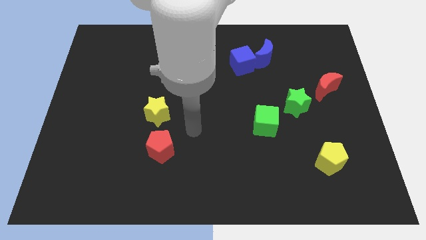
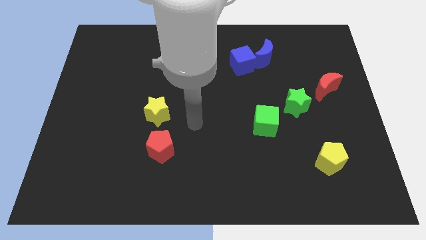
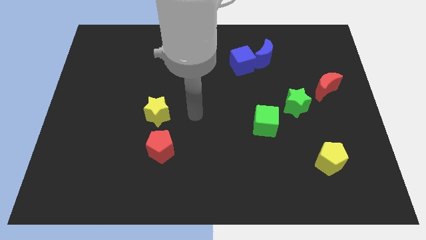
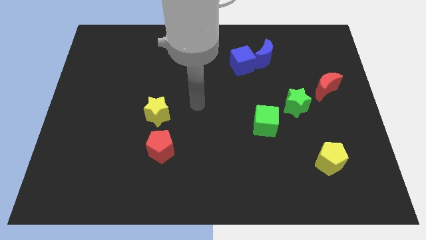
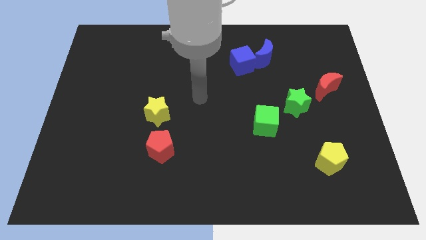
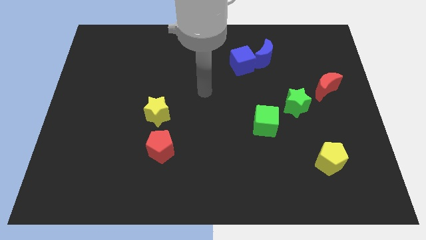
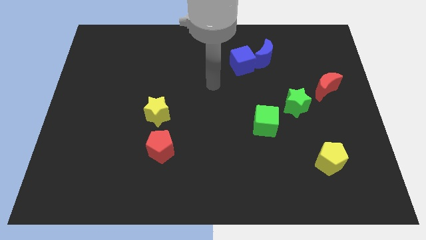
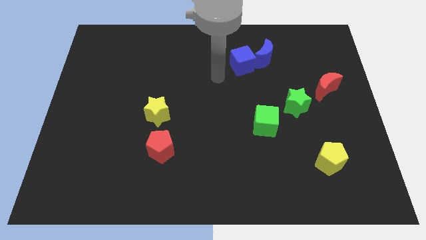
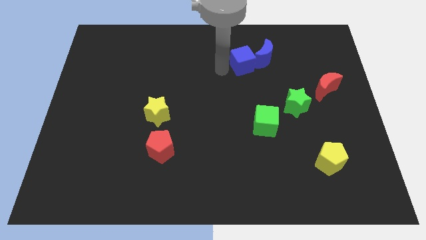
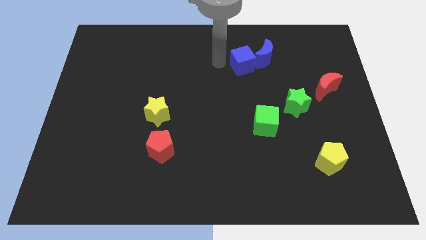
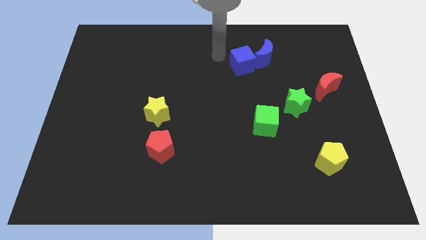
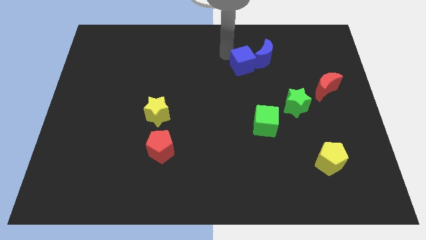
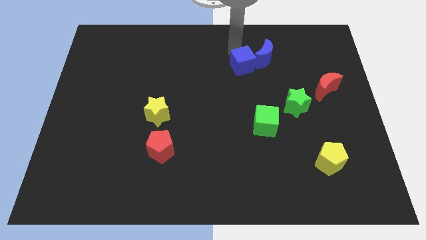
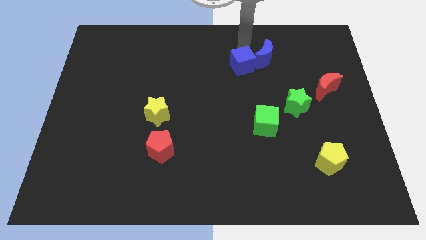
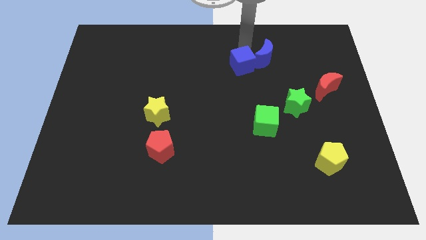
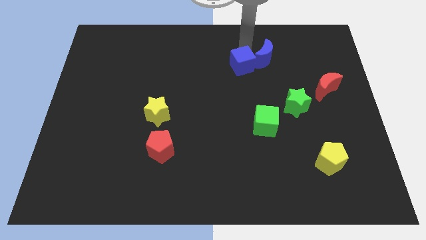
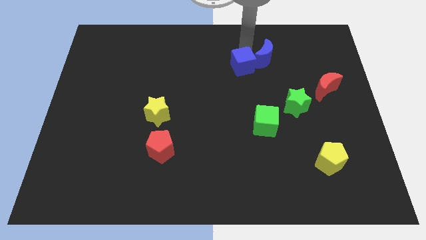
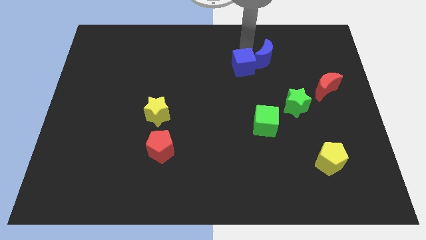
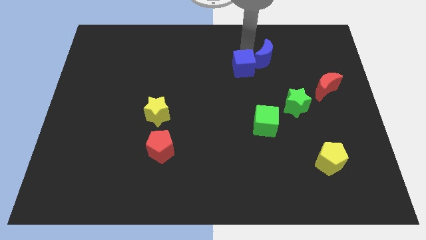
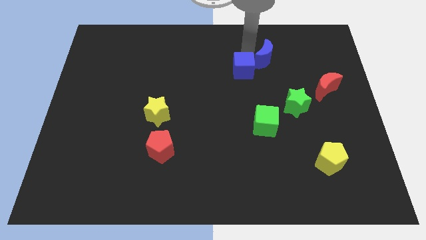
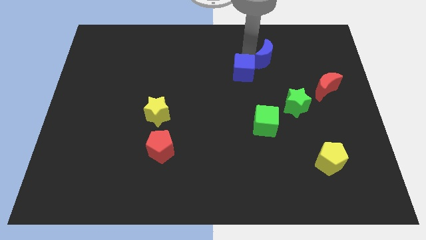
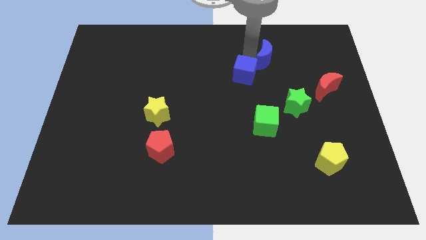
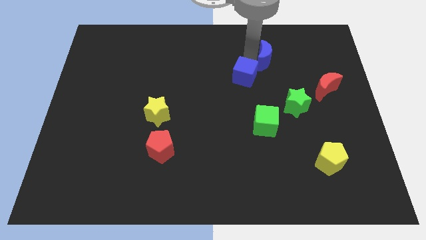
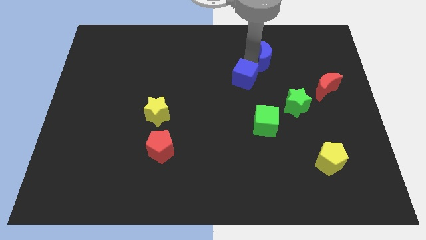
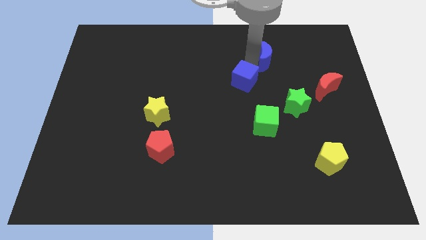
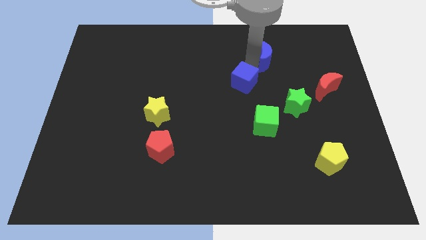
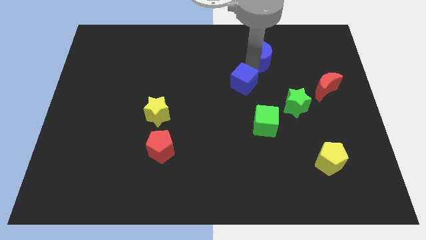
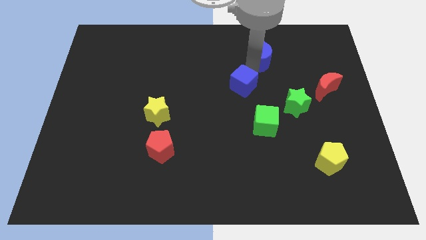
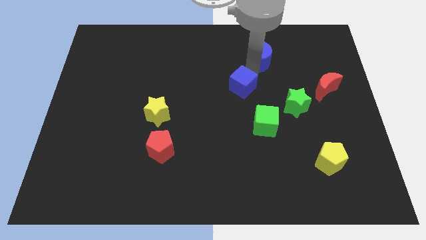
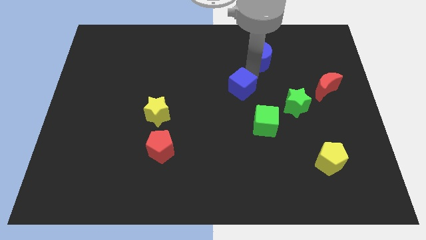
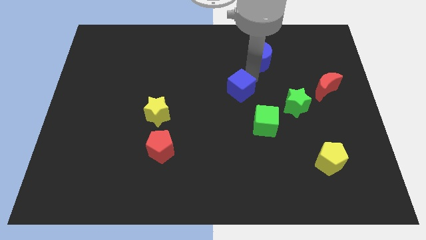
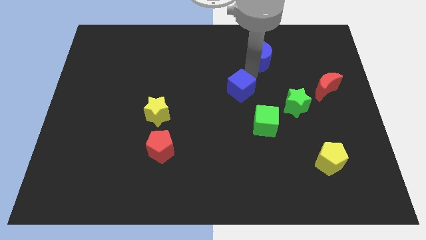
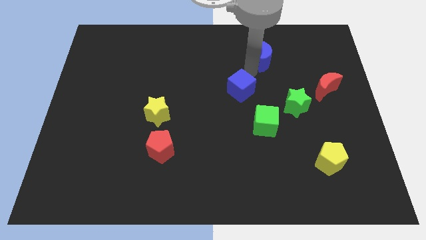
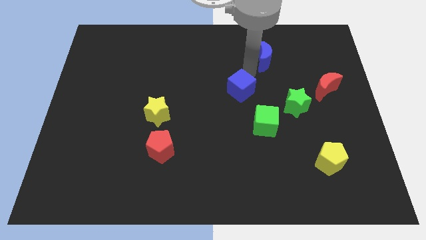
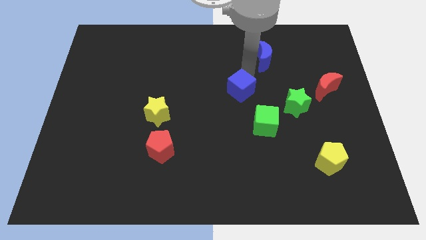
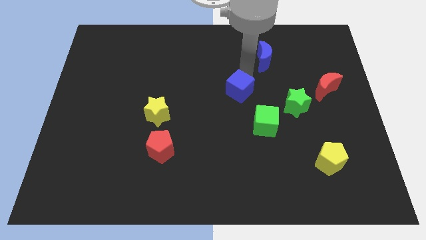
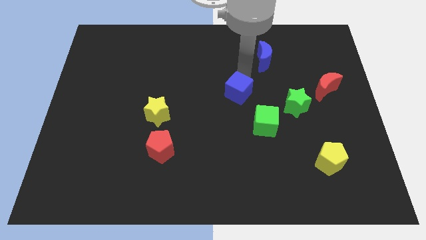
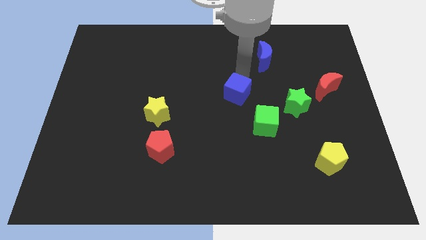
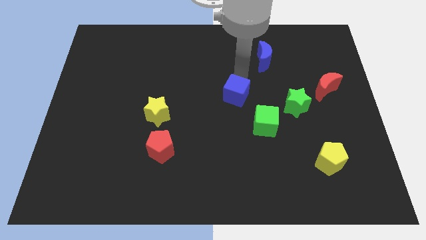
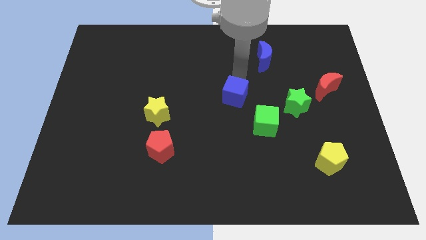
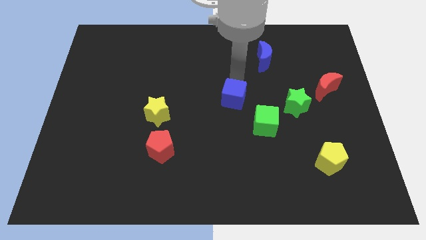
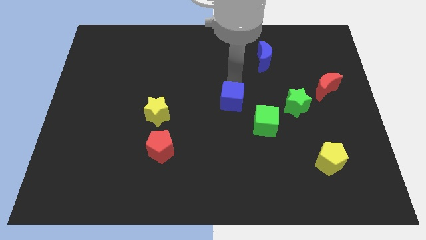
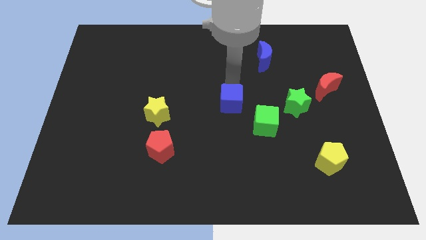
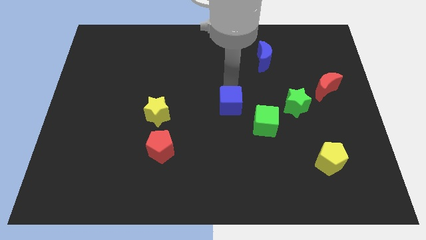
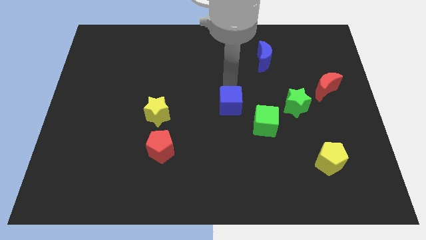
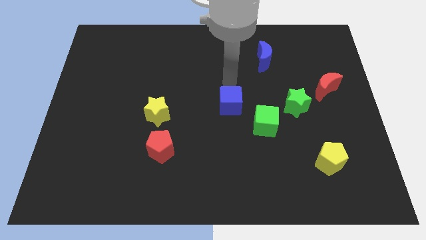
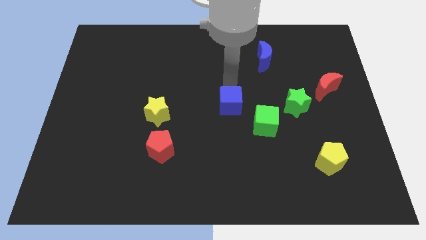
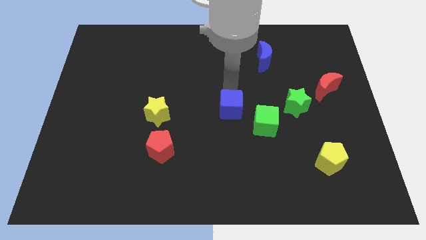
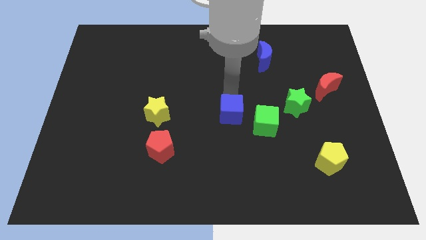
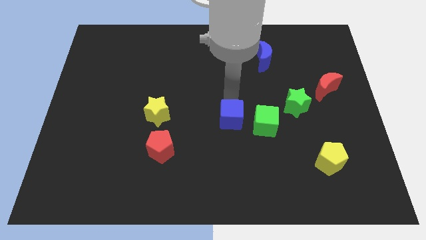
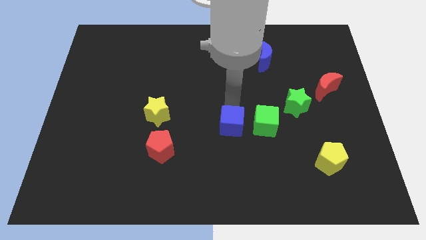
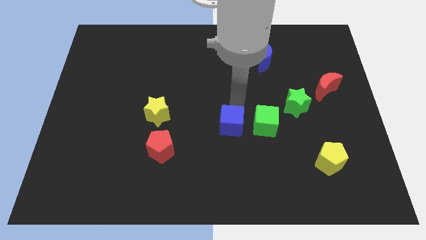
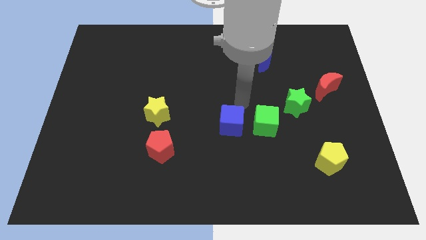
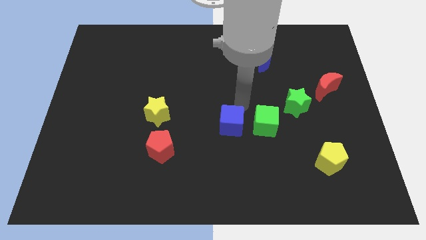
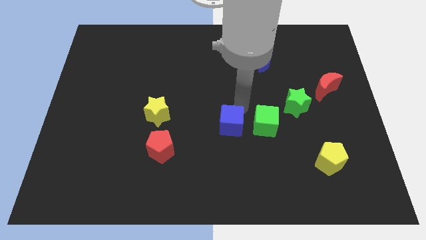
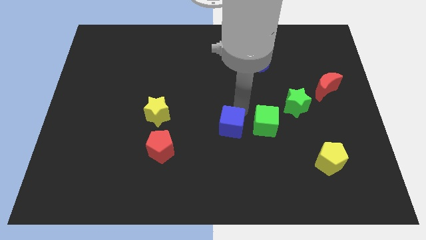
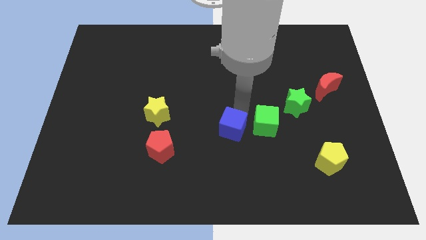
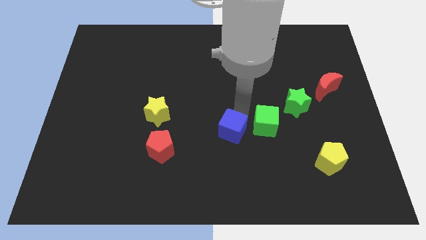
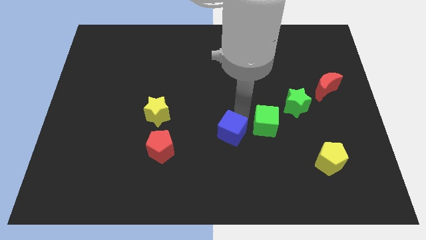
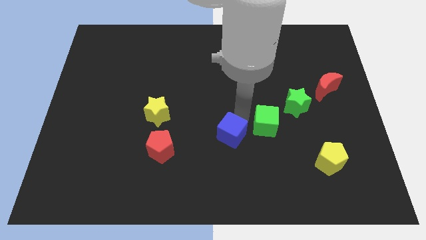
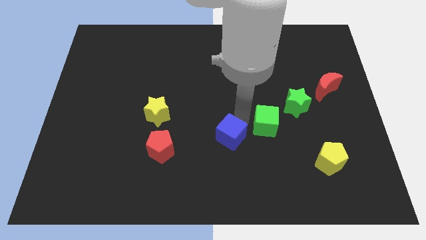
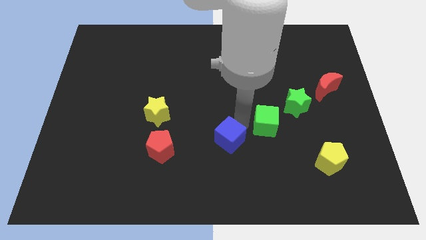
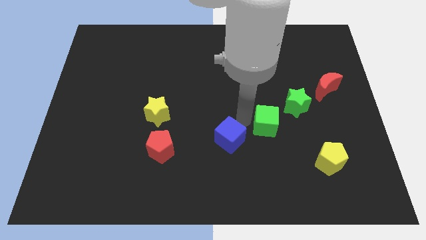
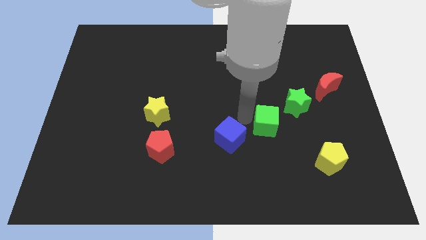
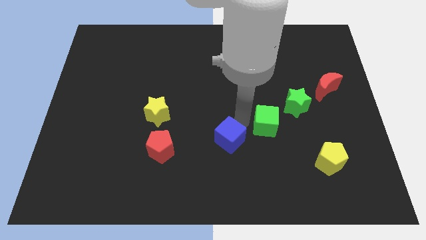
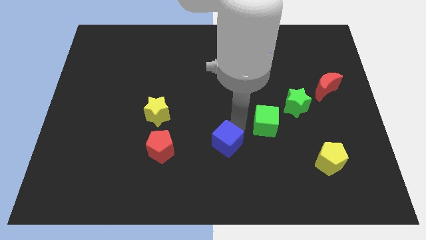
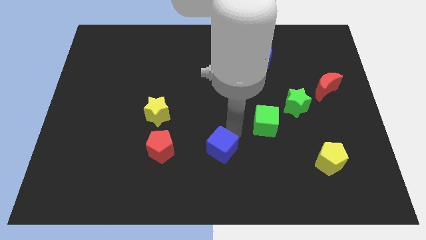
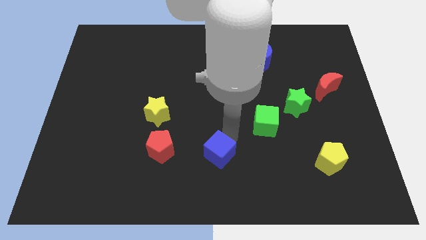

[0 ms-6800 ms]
push the blue cube to the bottom
